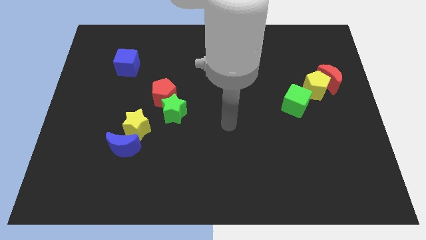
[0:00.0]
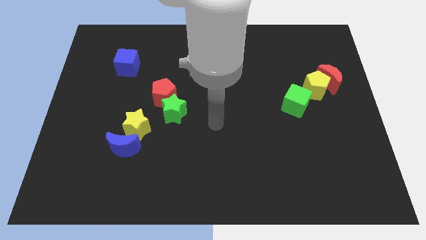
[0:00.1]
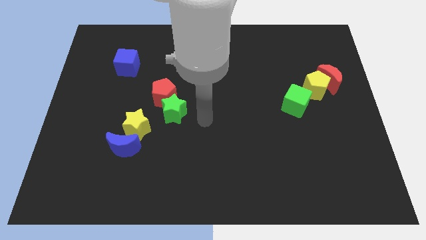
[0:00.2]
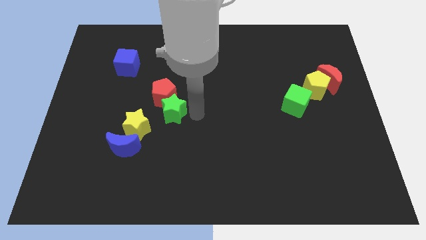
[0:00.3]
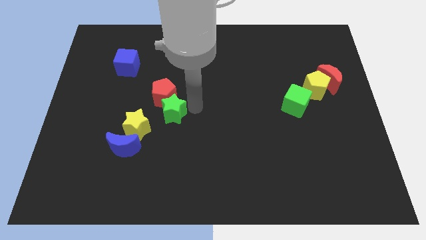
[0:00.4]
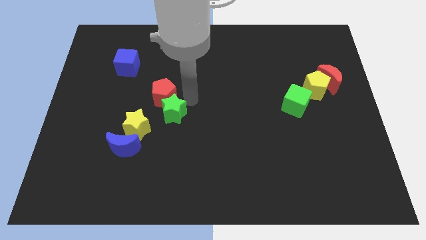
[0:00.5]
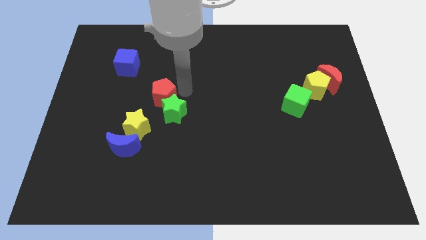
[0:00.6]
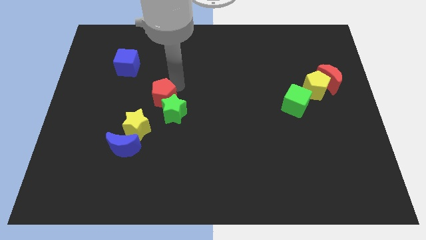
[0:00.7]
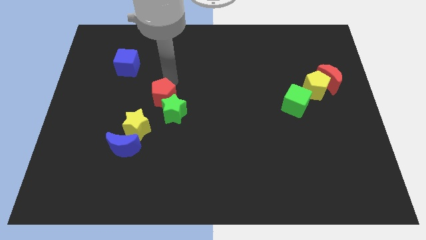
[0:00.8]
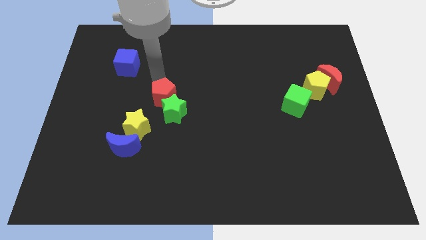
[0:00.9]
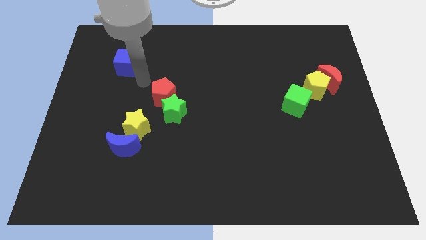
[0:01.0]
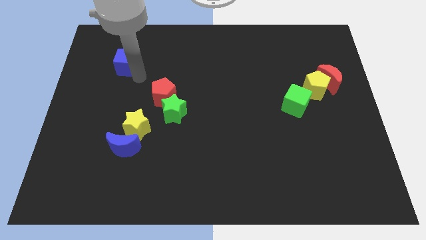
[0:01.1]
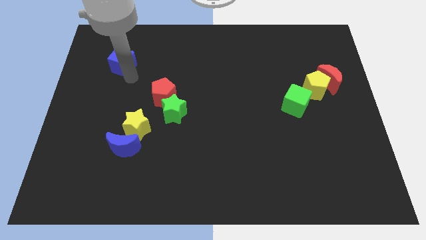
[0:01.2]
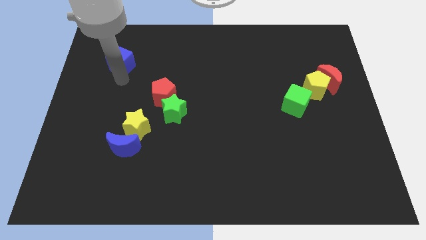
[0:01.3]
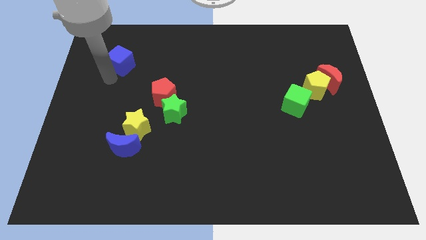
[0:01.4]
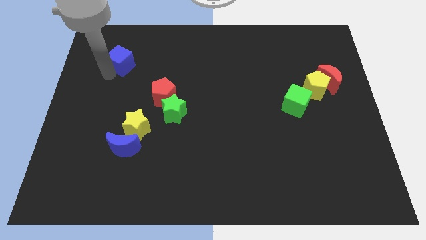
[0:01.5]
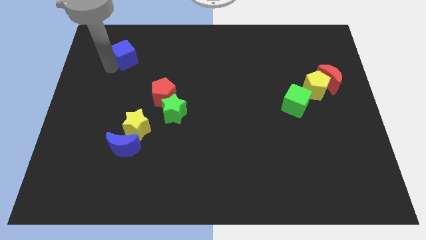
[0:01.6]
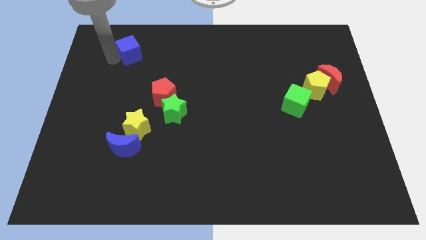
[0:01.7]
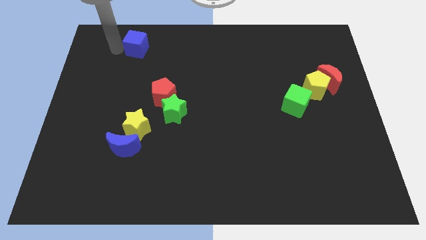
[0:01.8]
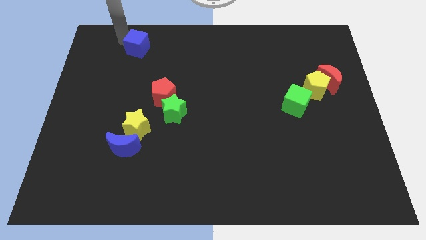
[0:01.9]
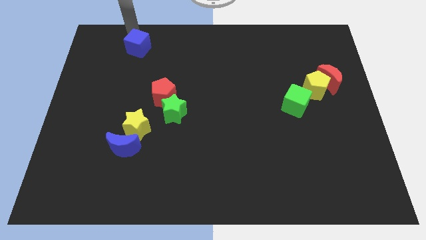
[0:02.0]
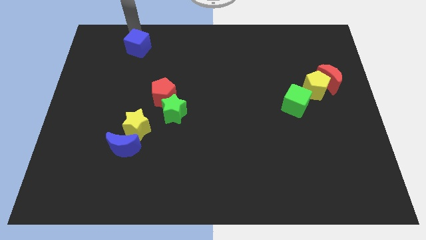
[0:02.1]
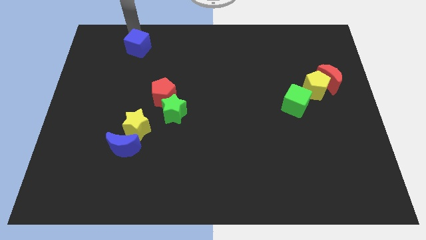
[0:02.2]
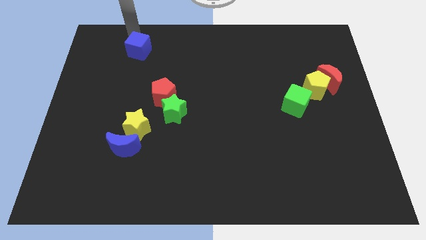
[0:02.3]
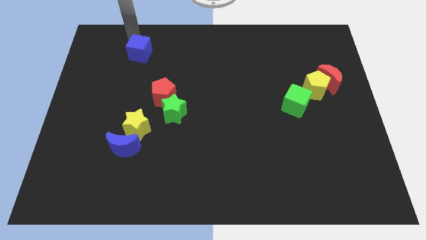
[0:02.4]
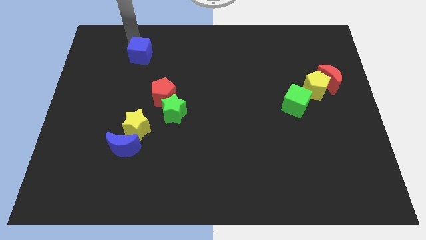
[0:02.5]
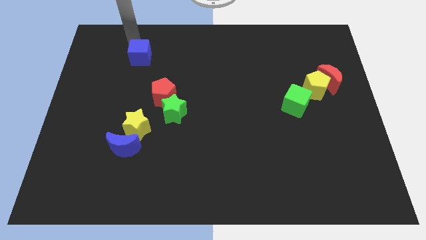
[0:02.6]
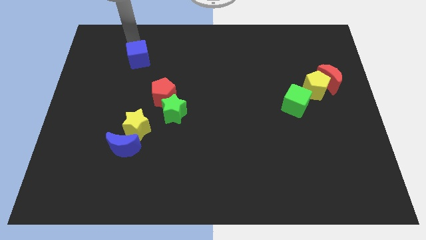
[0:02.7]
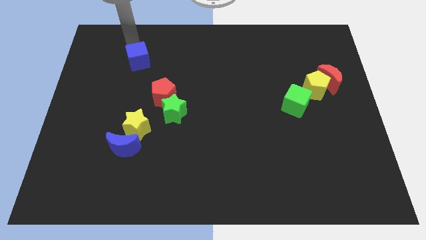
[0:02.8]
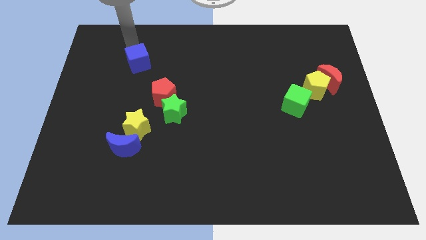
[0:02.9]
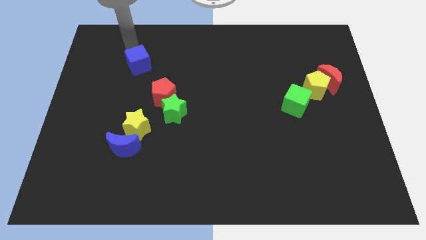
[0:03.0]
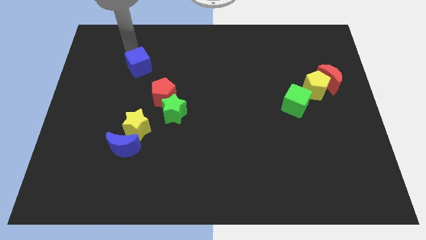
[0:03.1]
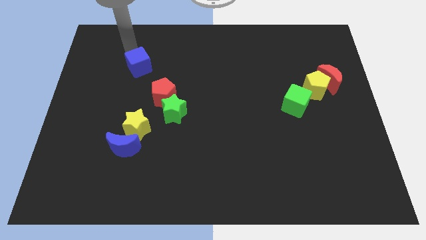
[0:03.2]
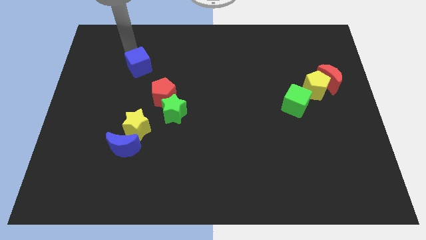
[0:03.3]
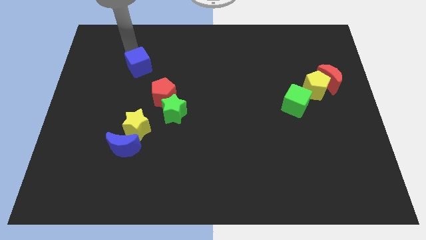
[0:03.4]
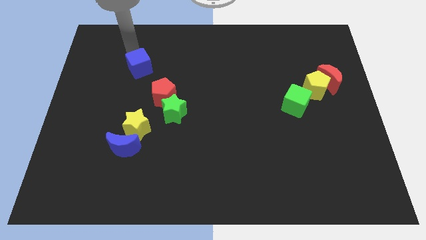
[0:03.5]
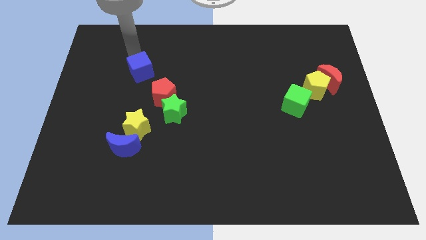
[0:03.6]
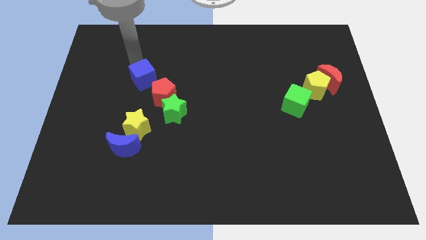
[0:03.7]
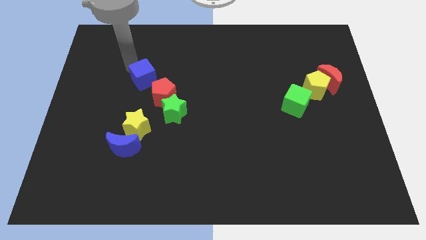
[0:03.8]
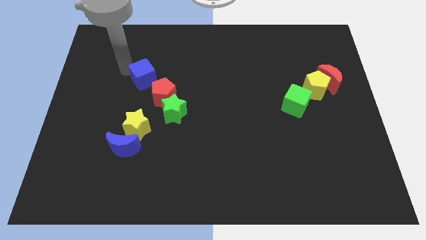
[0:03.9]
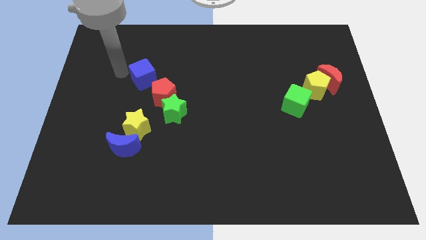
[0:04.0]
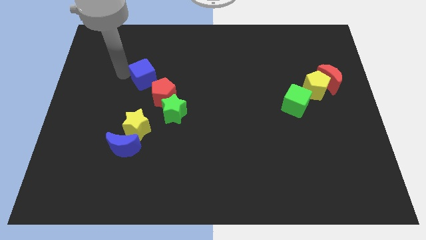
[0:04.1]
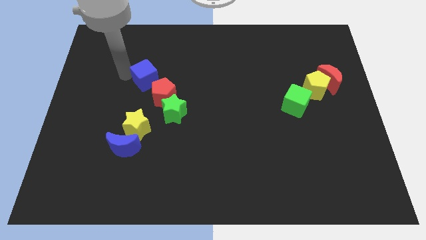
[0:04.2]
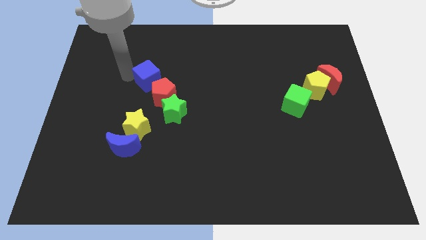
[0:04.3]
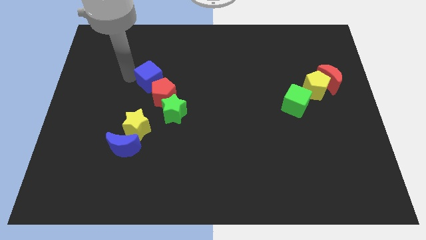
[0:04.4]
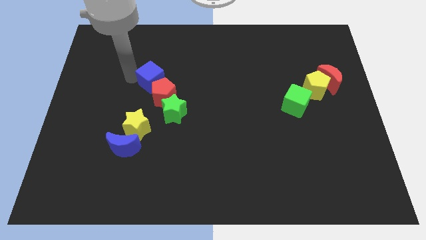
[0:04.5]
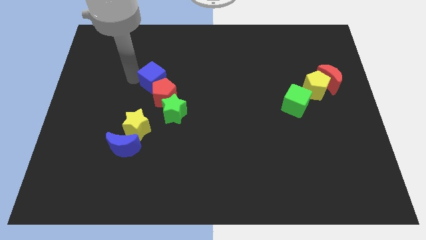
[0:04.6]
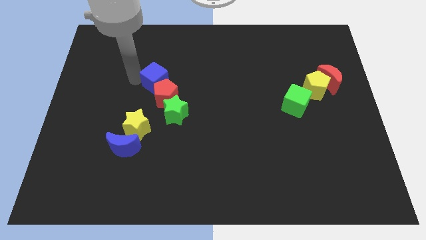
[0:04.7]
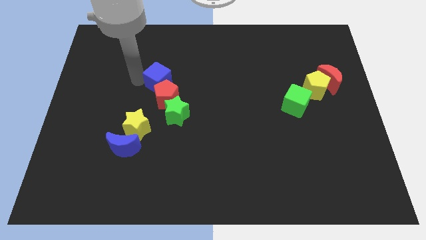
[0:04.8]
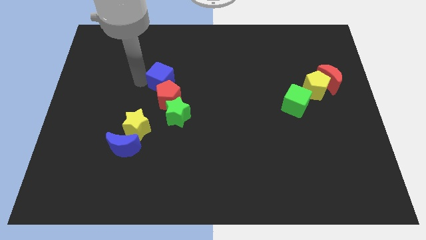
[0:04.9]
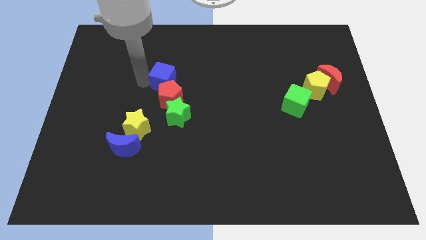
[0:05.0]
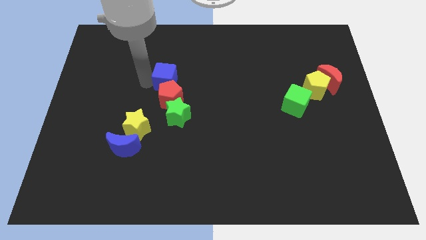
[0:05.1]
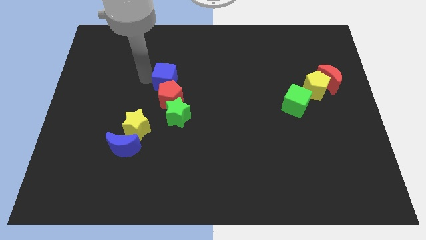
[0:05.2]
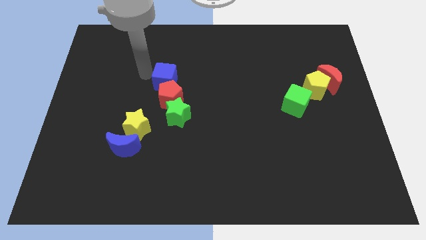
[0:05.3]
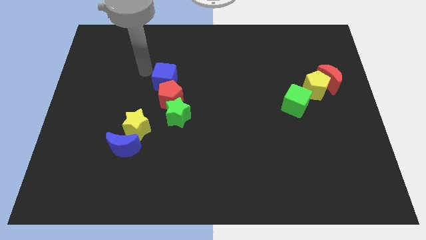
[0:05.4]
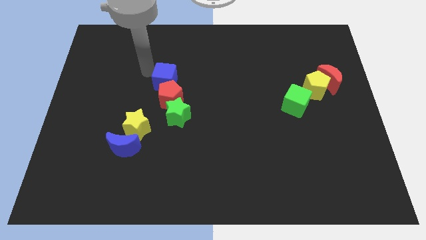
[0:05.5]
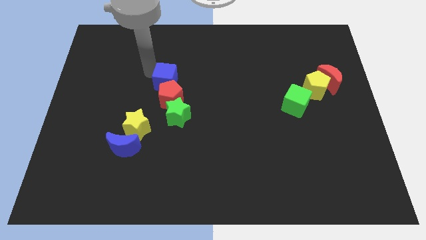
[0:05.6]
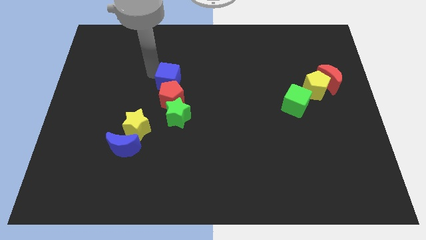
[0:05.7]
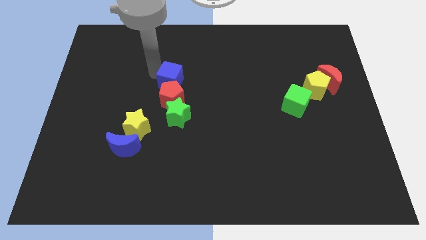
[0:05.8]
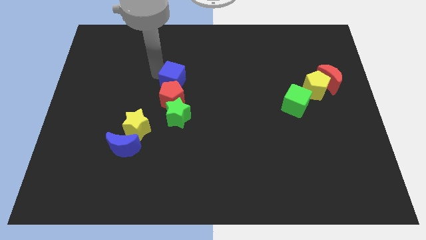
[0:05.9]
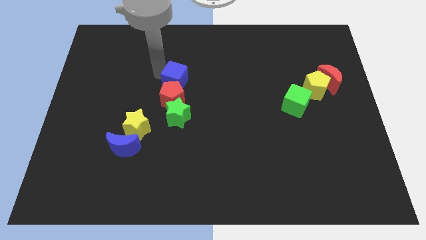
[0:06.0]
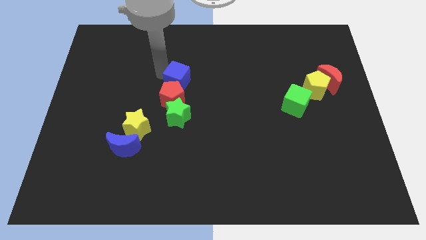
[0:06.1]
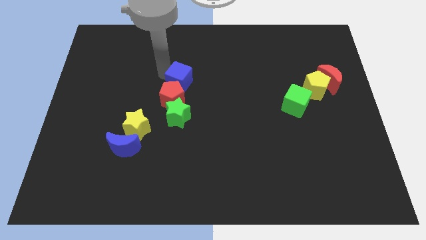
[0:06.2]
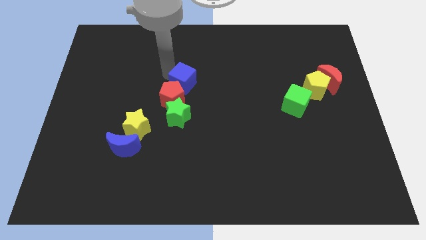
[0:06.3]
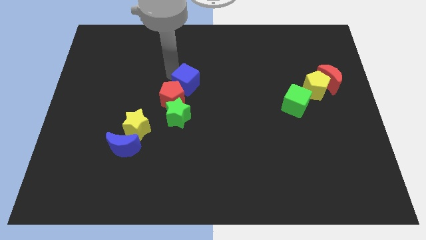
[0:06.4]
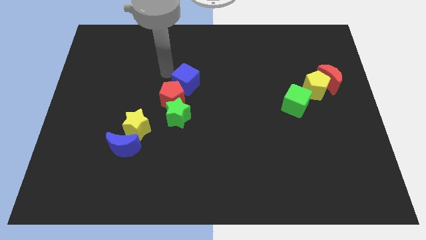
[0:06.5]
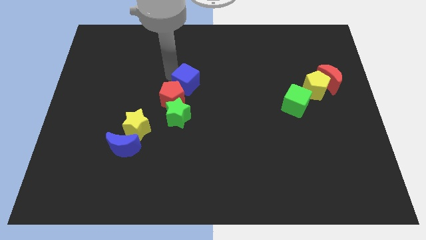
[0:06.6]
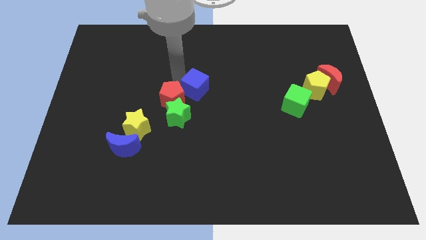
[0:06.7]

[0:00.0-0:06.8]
slide the blue cube to the right of the red pentagon

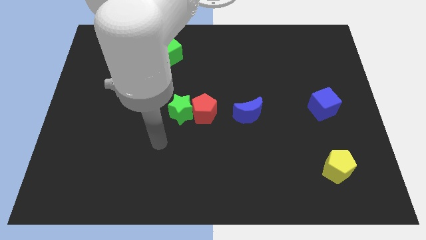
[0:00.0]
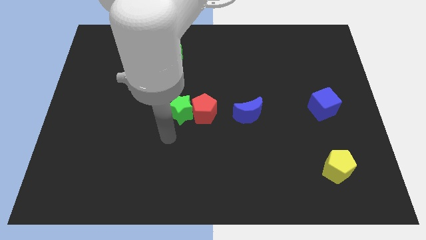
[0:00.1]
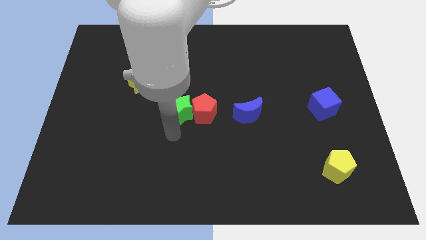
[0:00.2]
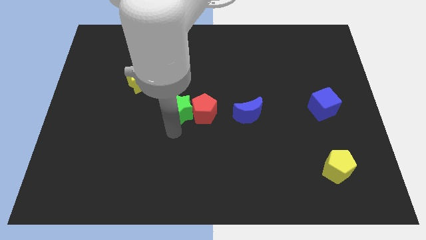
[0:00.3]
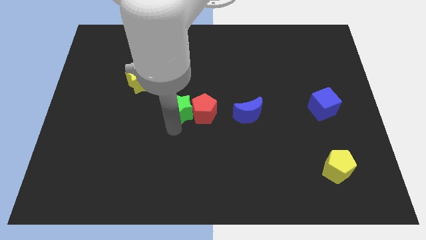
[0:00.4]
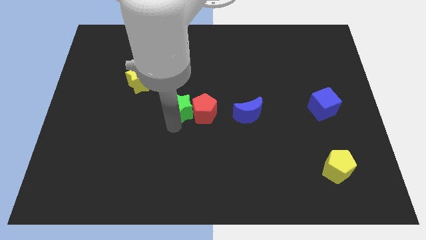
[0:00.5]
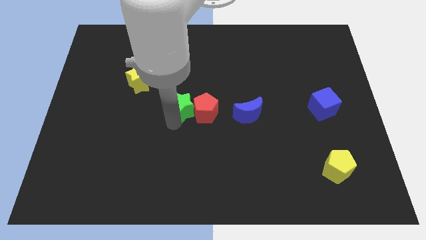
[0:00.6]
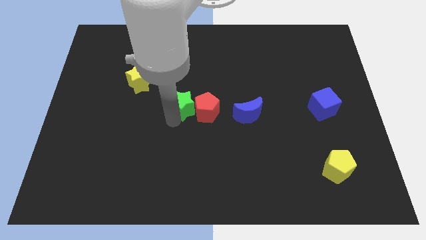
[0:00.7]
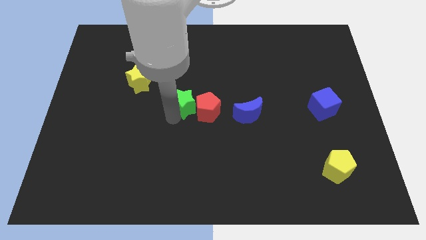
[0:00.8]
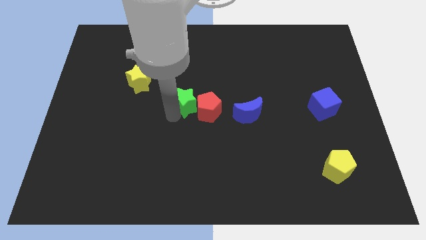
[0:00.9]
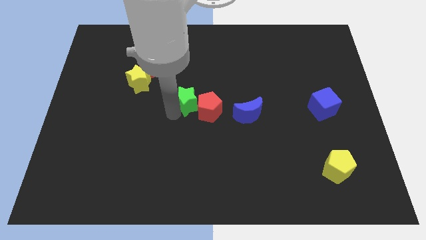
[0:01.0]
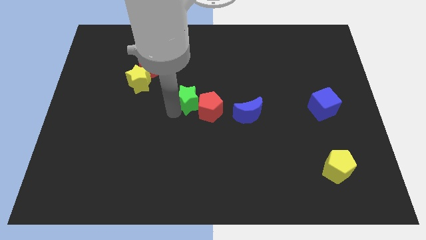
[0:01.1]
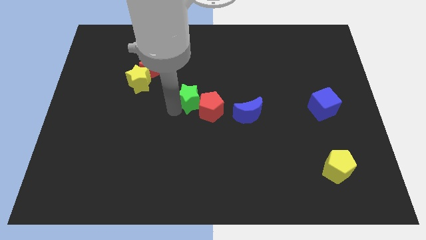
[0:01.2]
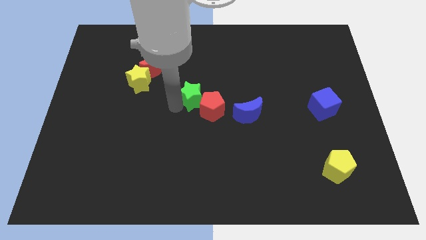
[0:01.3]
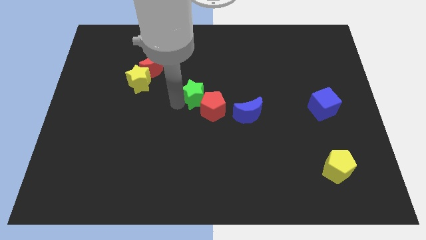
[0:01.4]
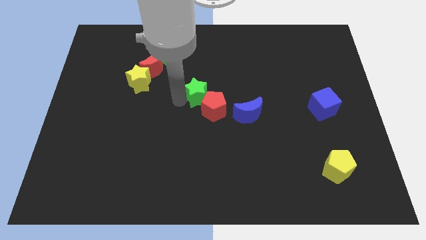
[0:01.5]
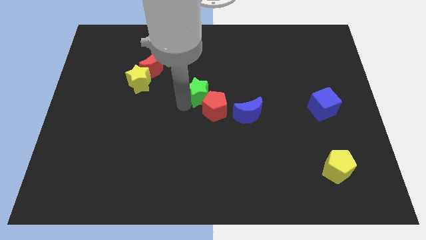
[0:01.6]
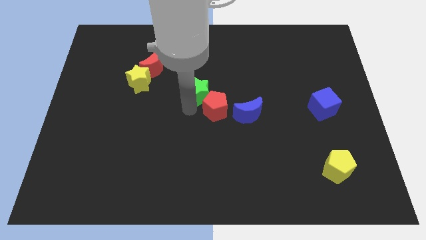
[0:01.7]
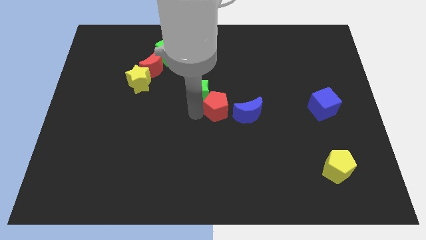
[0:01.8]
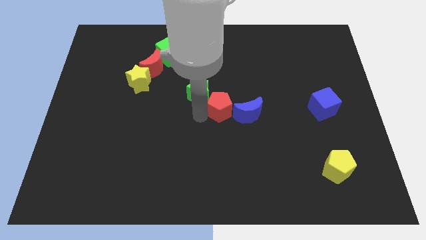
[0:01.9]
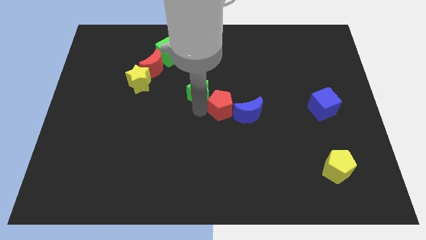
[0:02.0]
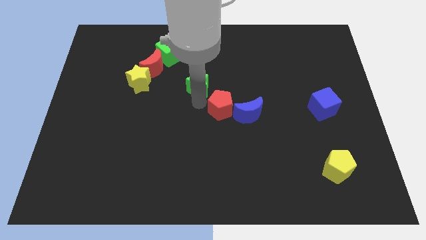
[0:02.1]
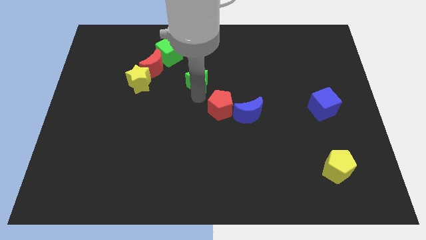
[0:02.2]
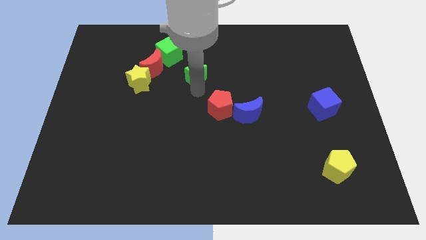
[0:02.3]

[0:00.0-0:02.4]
move the green star to the right side of the red moon
